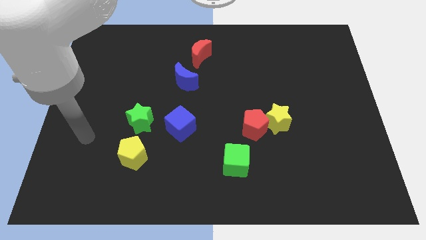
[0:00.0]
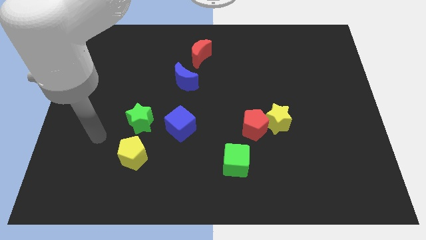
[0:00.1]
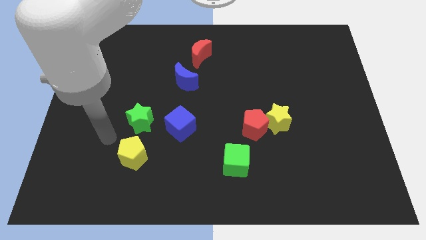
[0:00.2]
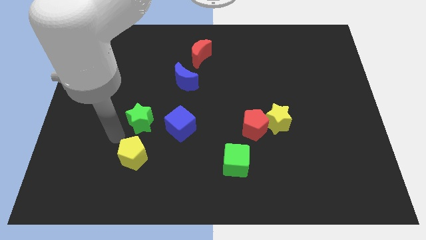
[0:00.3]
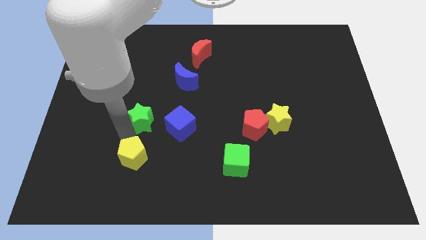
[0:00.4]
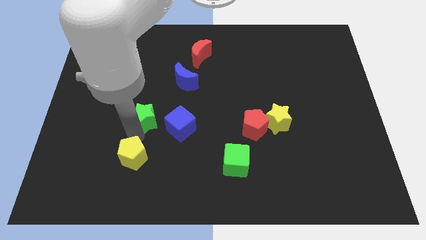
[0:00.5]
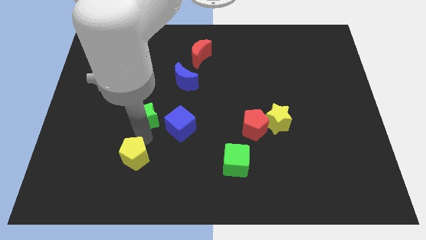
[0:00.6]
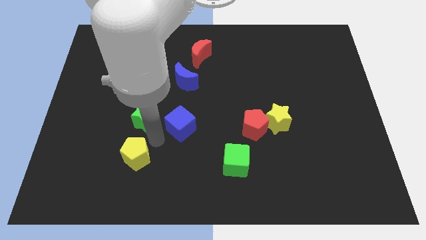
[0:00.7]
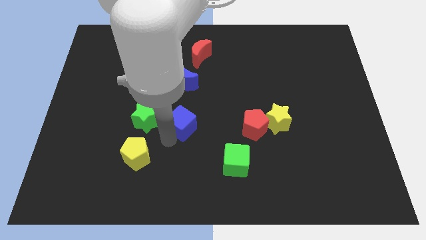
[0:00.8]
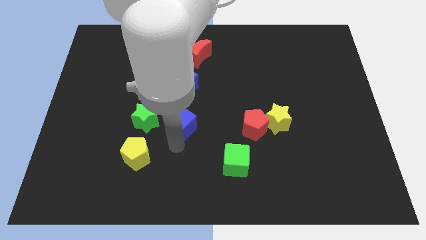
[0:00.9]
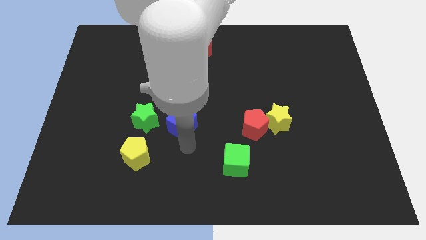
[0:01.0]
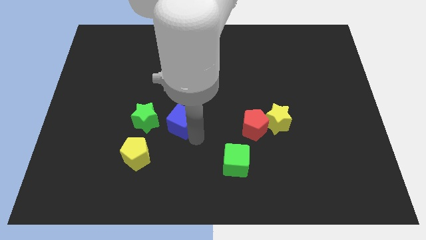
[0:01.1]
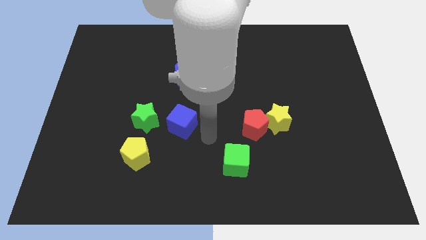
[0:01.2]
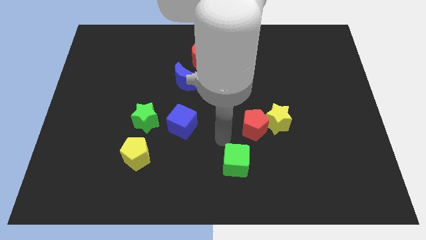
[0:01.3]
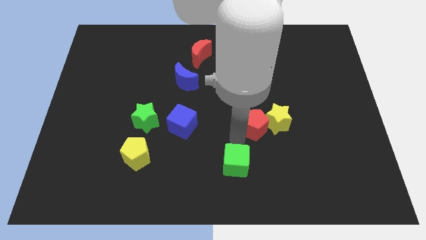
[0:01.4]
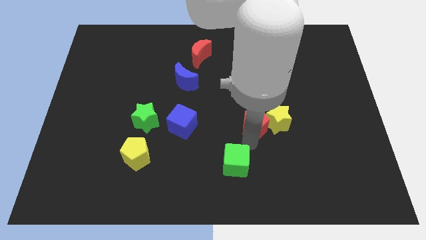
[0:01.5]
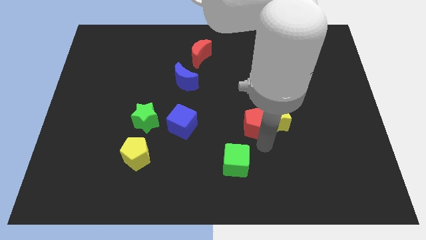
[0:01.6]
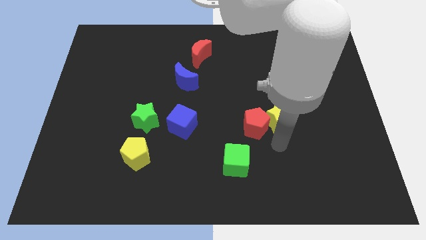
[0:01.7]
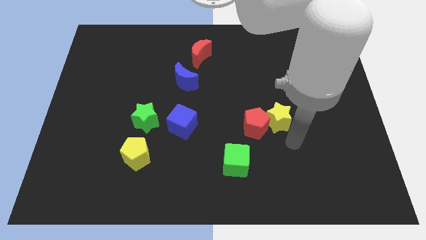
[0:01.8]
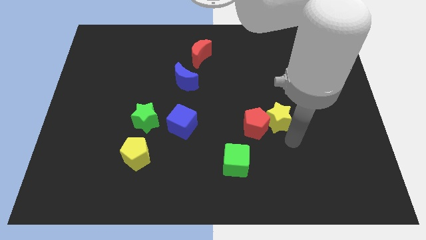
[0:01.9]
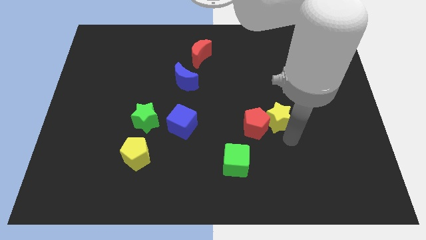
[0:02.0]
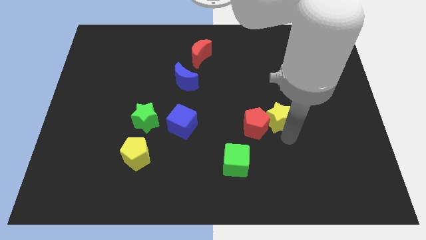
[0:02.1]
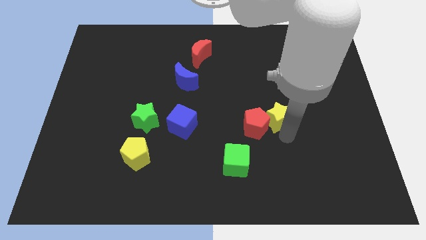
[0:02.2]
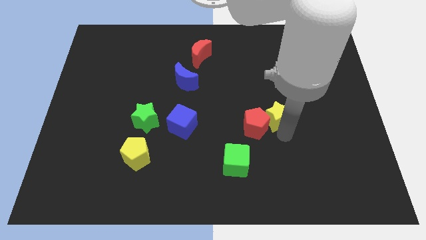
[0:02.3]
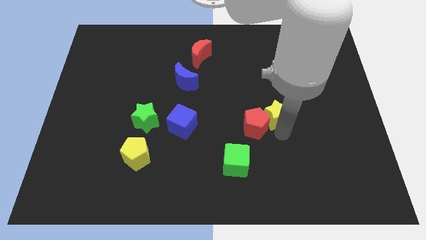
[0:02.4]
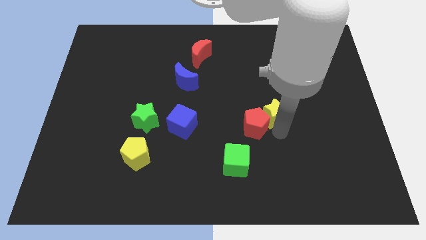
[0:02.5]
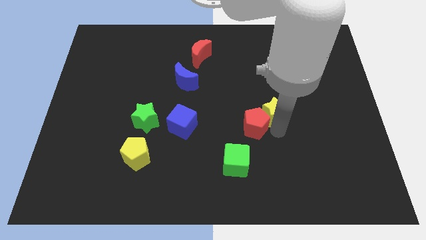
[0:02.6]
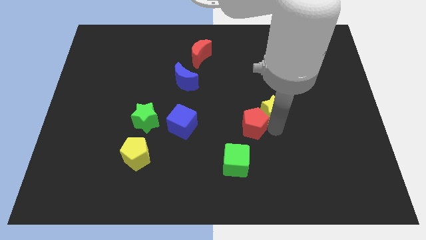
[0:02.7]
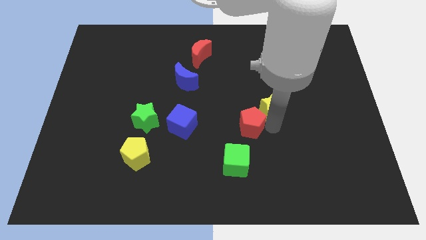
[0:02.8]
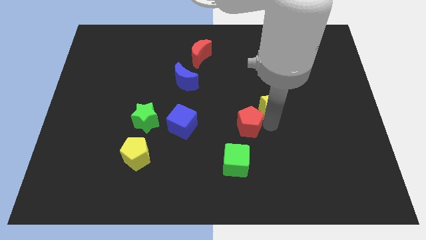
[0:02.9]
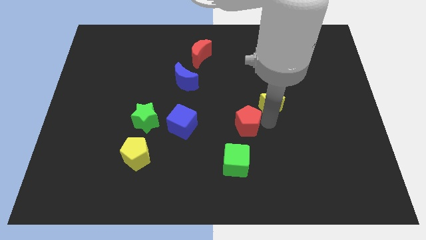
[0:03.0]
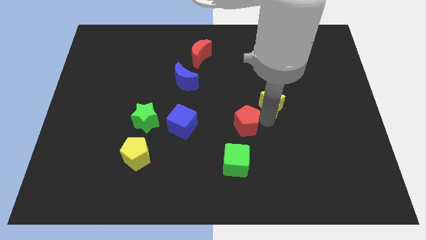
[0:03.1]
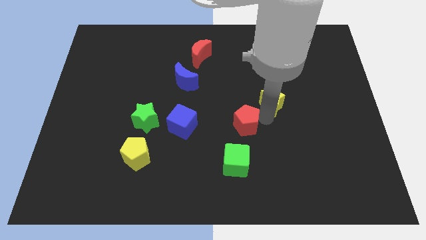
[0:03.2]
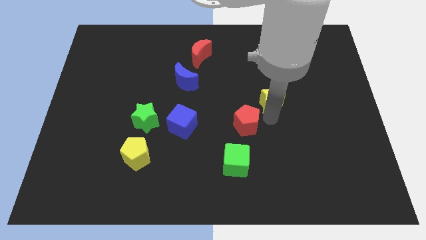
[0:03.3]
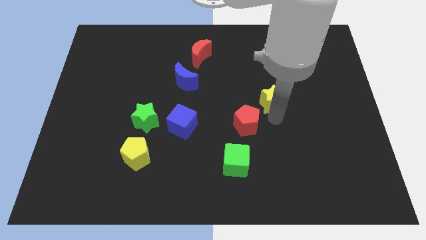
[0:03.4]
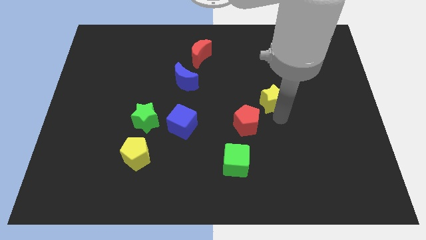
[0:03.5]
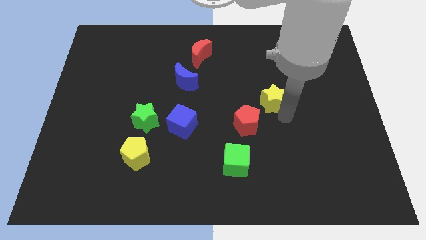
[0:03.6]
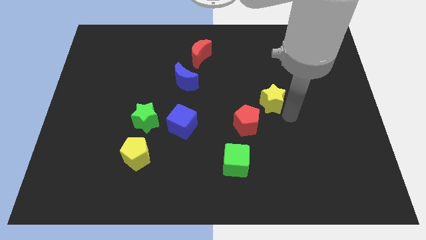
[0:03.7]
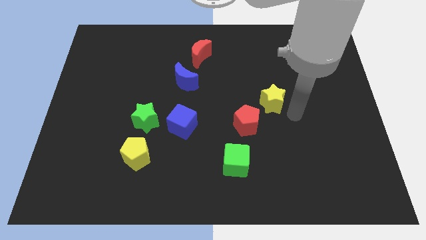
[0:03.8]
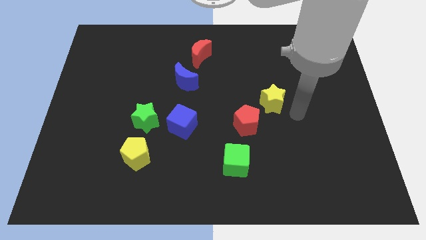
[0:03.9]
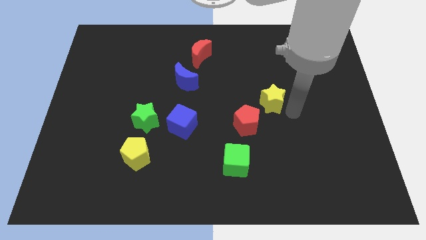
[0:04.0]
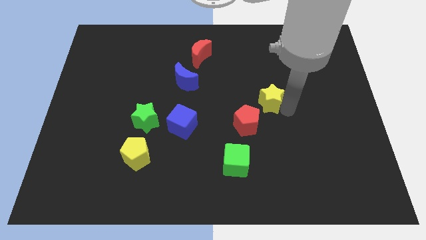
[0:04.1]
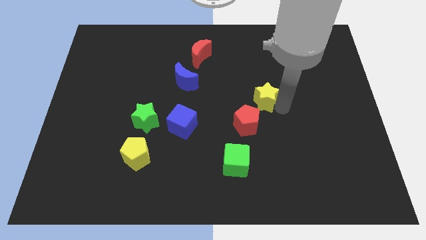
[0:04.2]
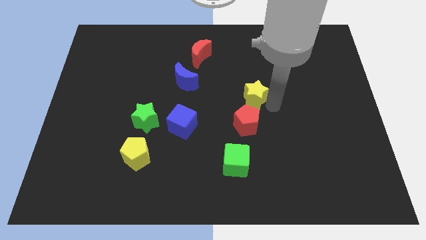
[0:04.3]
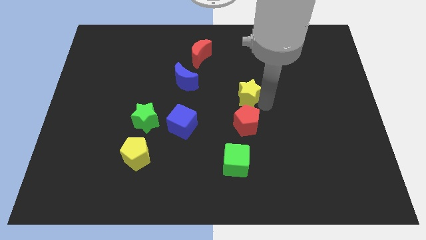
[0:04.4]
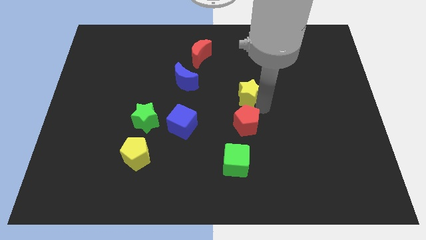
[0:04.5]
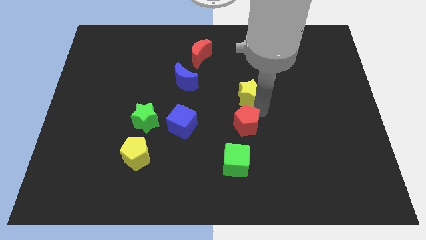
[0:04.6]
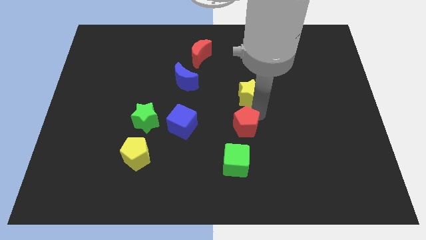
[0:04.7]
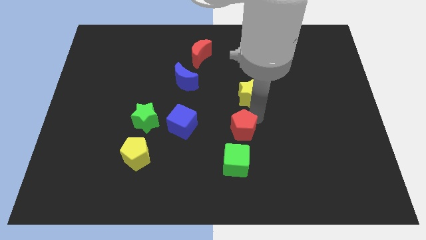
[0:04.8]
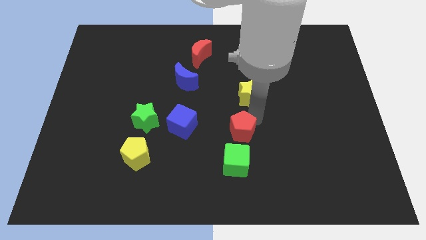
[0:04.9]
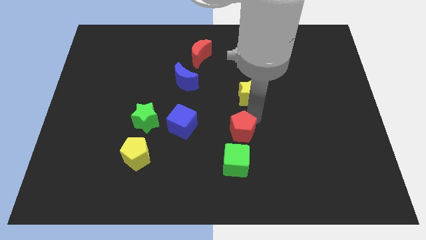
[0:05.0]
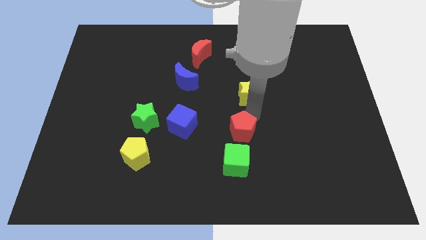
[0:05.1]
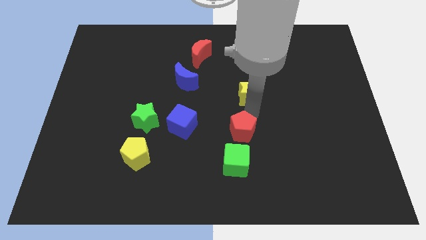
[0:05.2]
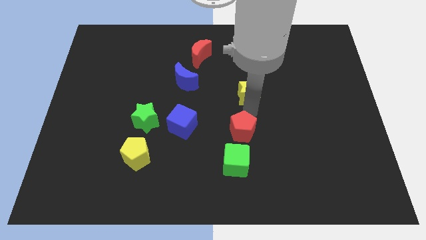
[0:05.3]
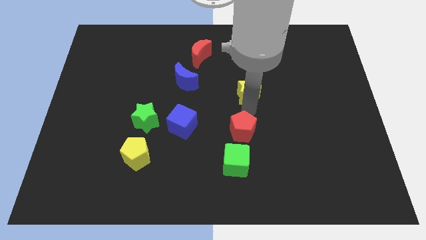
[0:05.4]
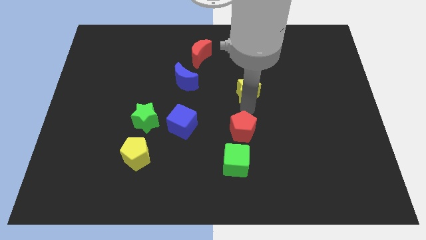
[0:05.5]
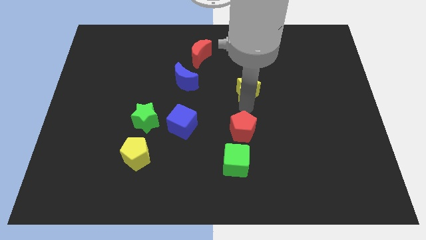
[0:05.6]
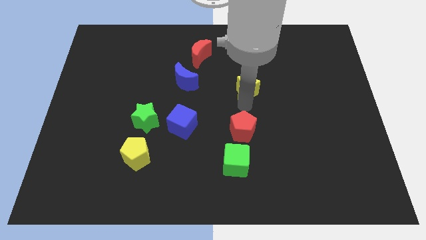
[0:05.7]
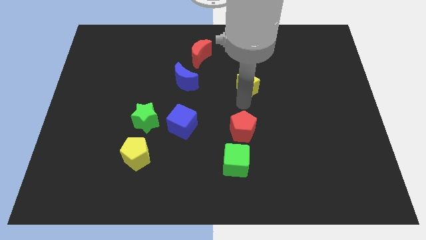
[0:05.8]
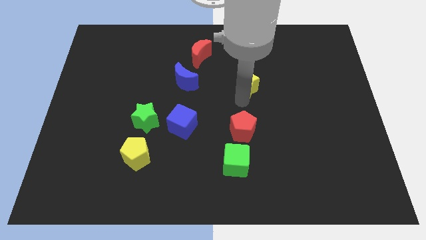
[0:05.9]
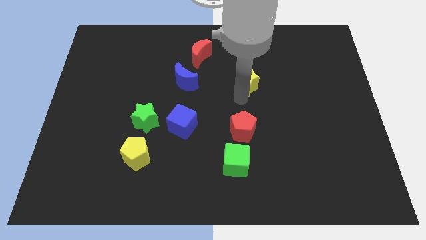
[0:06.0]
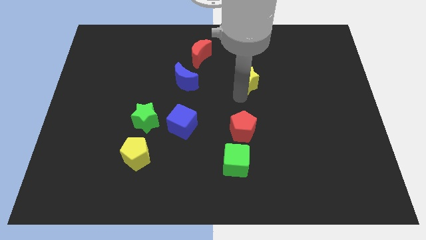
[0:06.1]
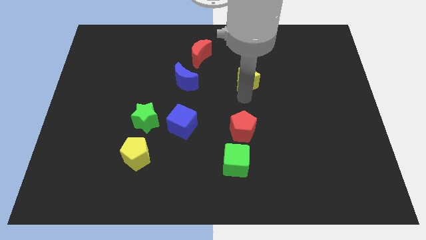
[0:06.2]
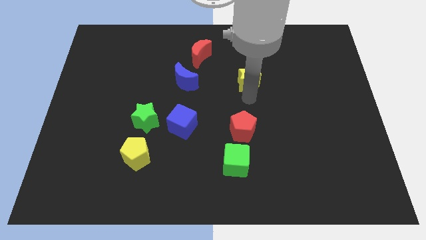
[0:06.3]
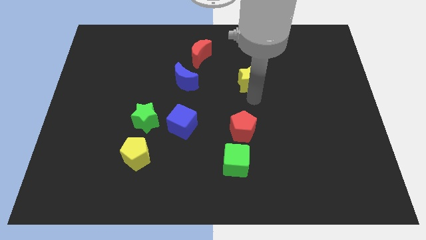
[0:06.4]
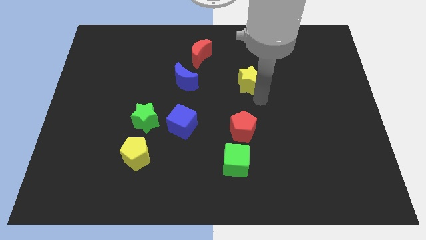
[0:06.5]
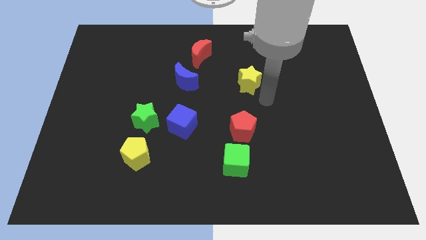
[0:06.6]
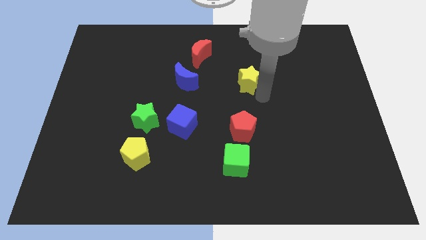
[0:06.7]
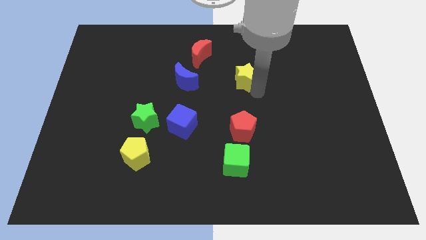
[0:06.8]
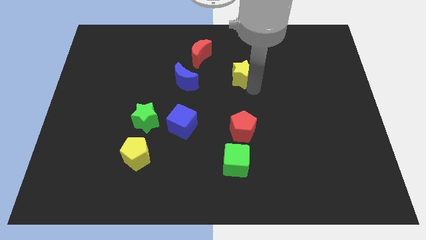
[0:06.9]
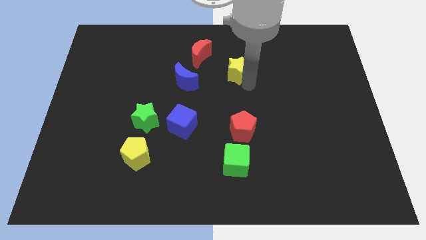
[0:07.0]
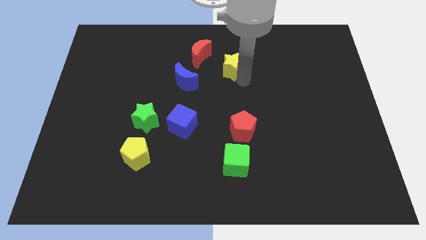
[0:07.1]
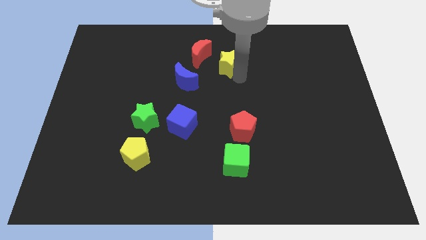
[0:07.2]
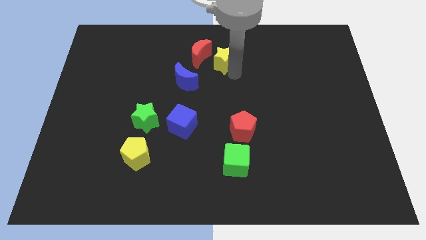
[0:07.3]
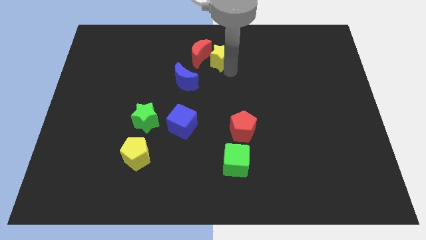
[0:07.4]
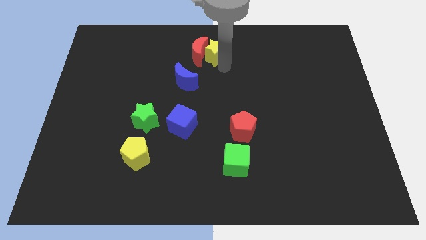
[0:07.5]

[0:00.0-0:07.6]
push the yellow star to the top side
